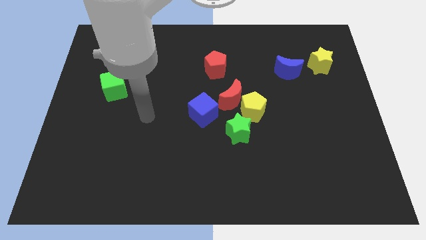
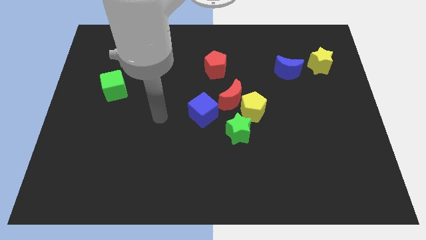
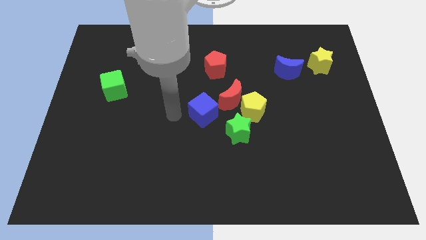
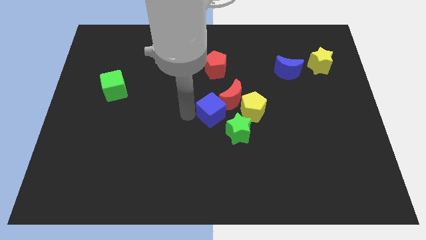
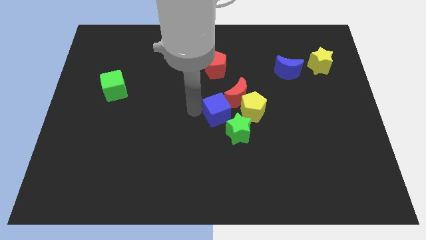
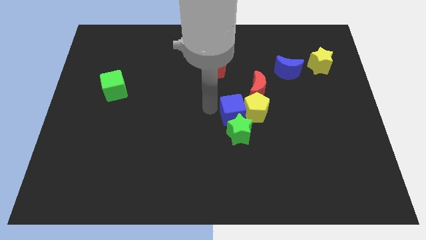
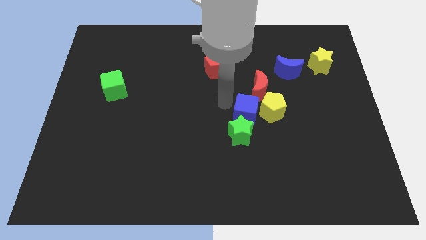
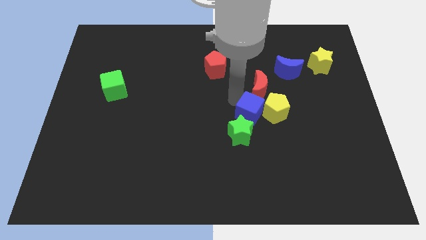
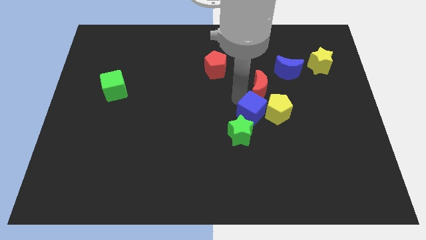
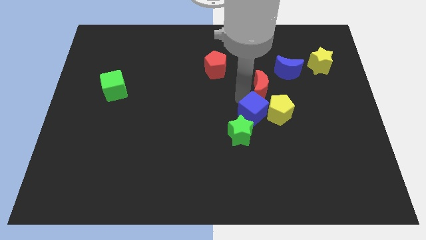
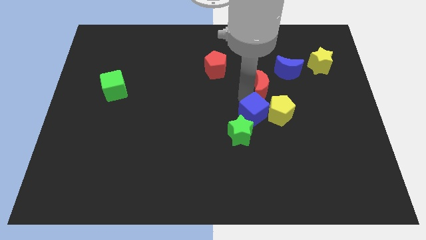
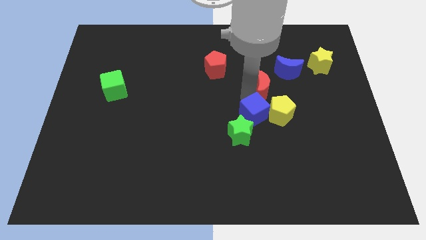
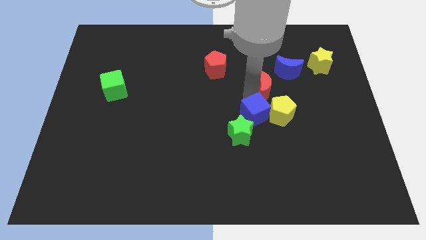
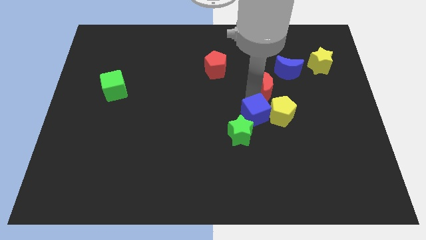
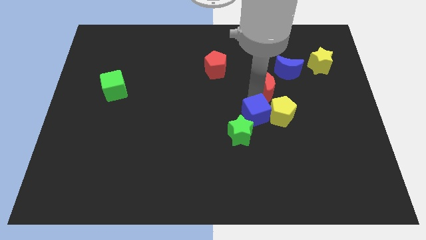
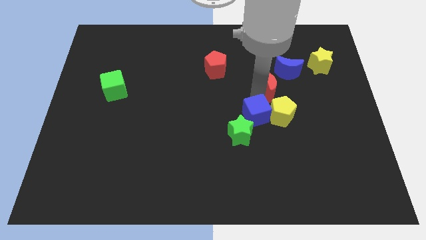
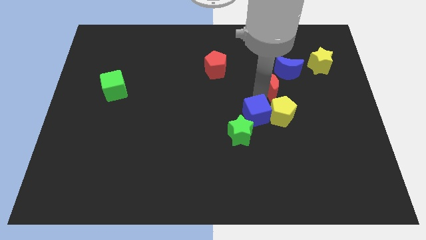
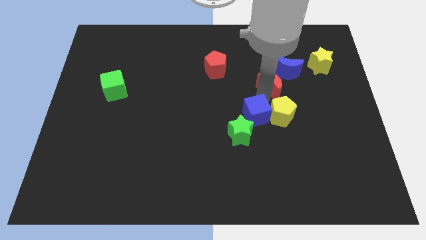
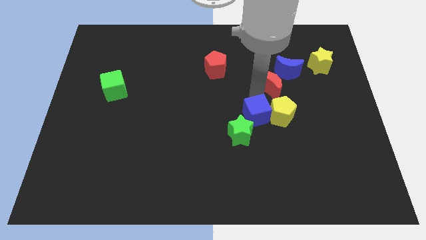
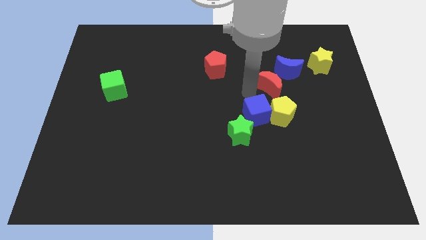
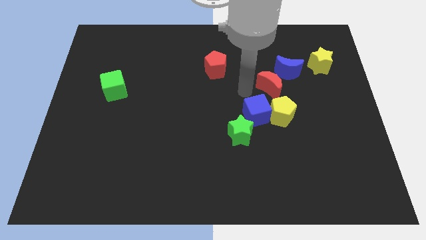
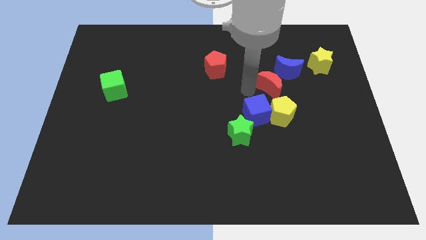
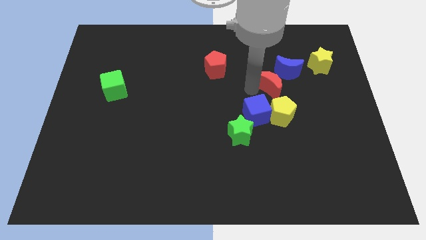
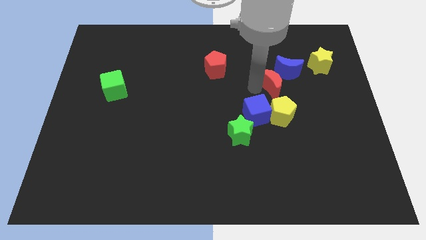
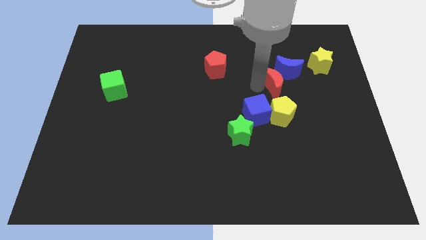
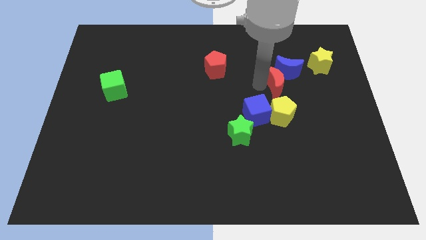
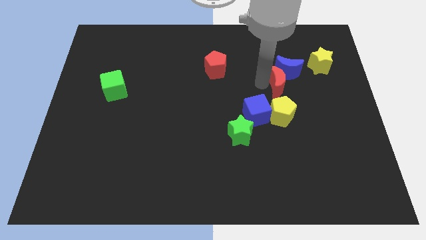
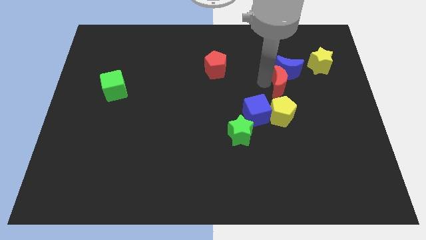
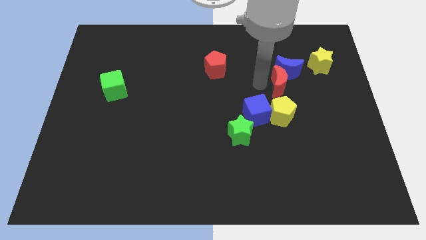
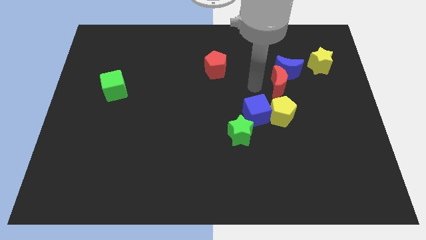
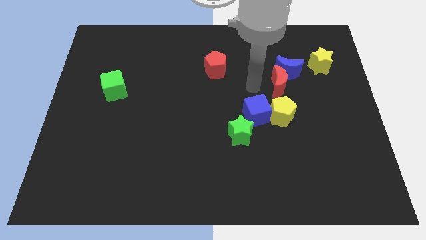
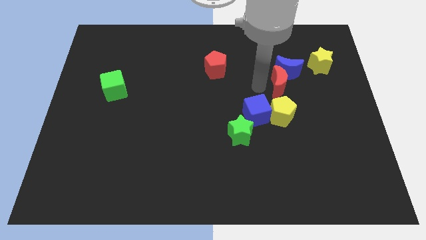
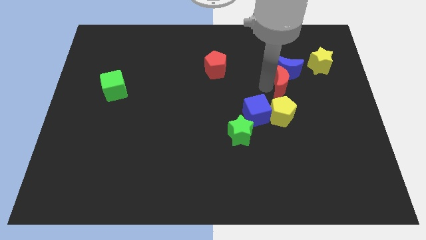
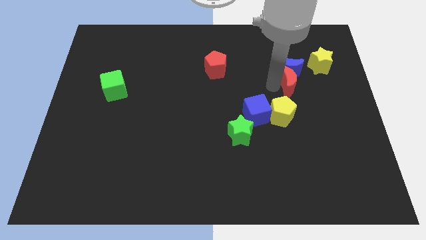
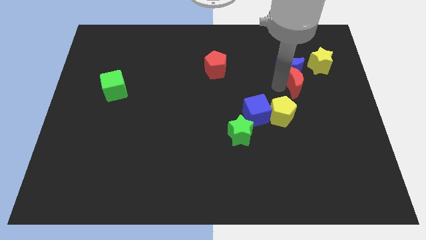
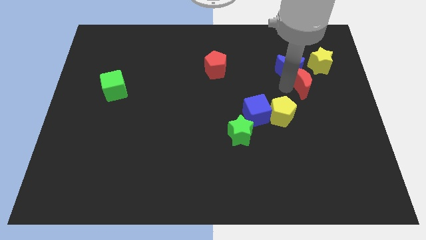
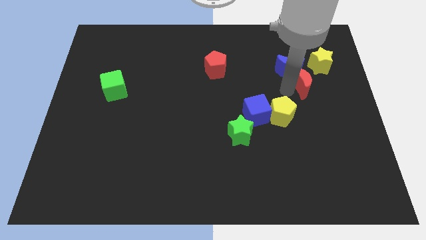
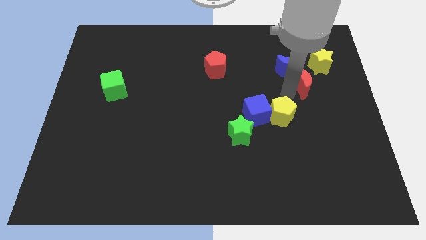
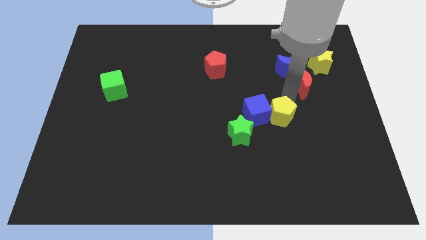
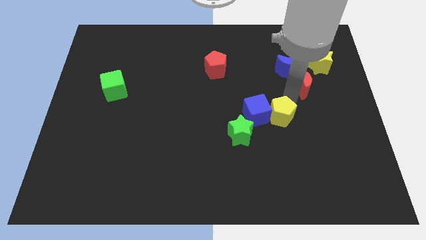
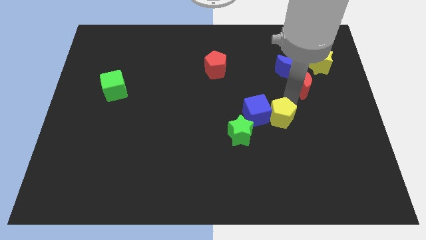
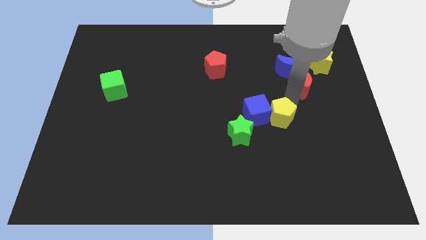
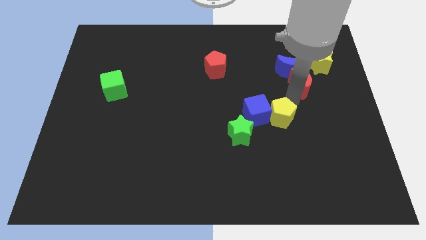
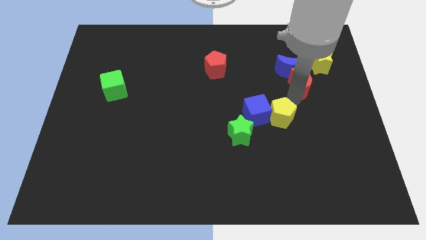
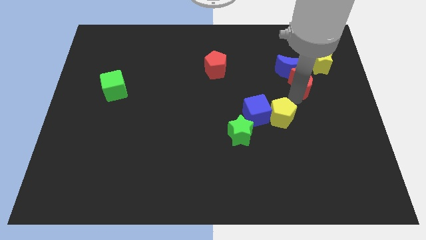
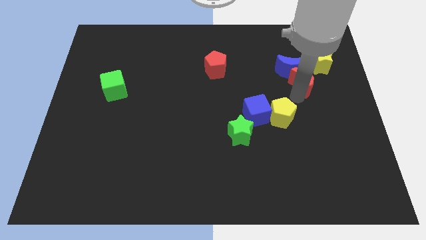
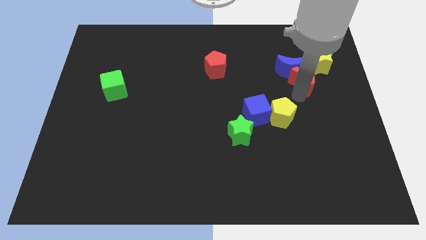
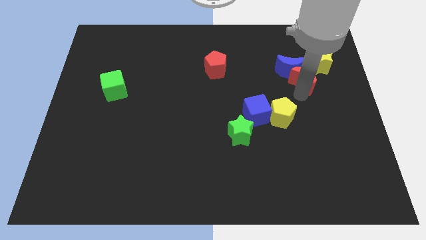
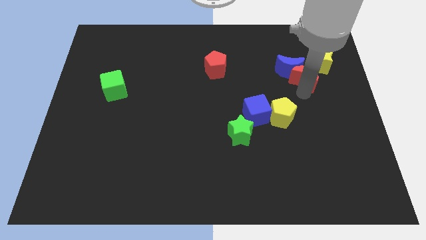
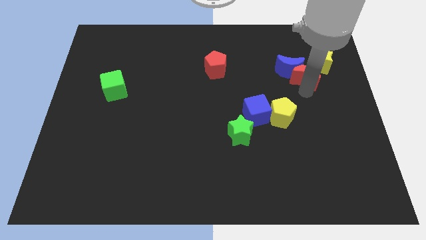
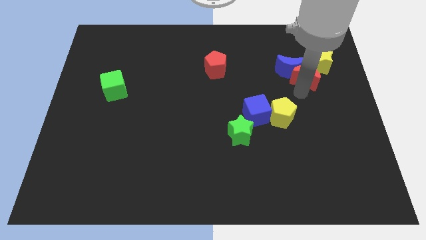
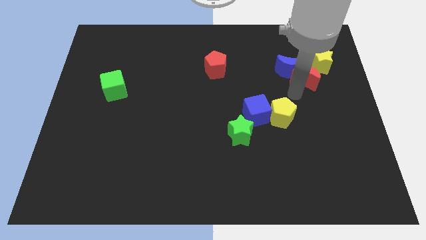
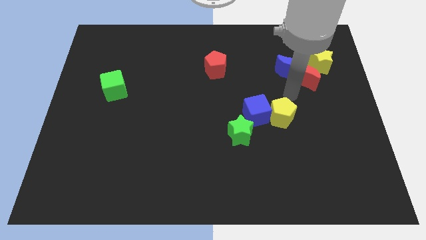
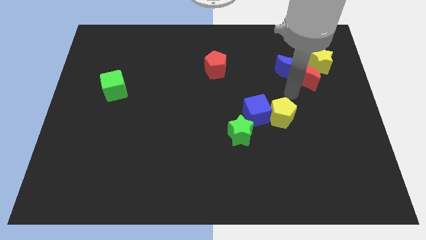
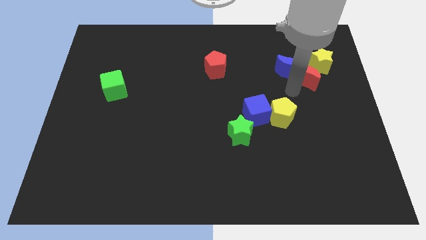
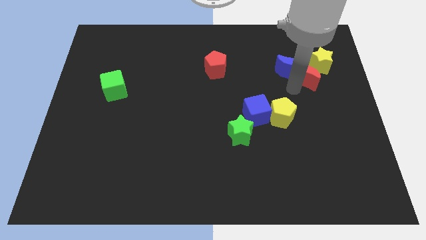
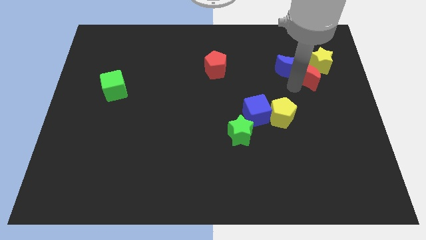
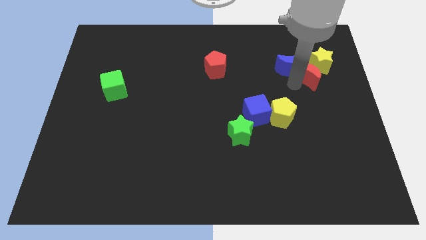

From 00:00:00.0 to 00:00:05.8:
put the red moon to the yellow star

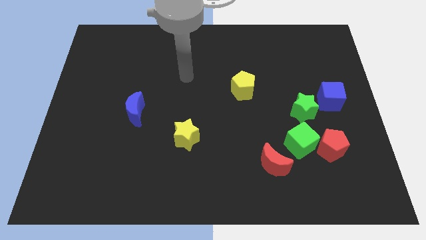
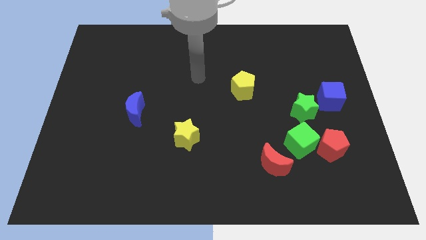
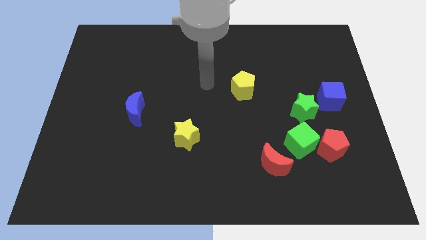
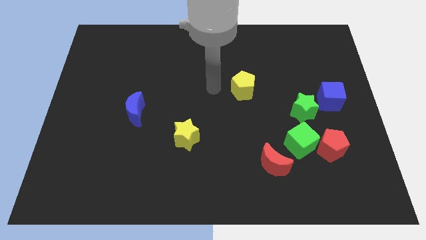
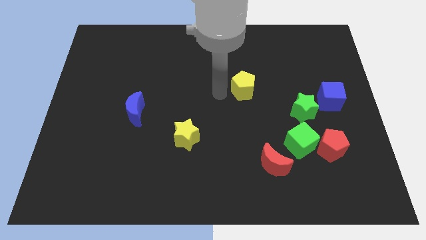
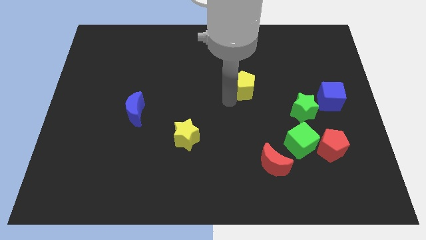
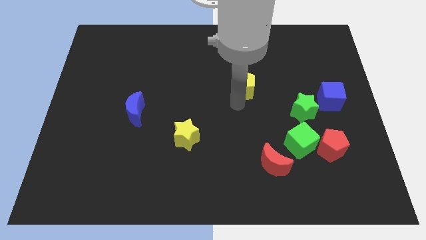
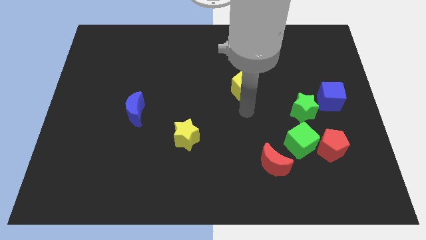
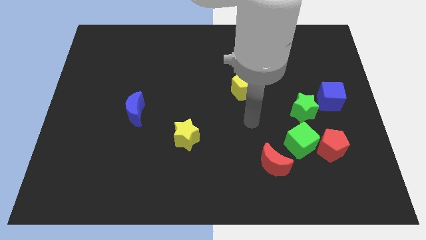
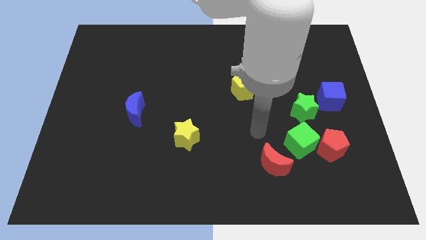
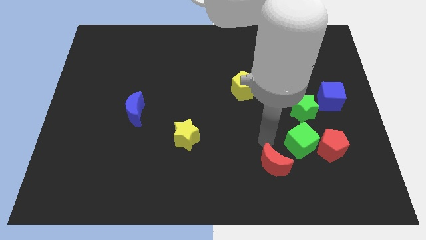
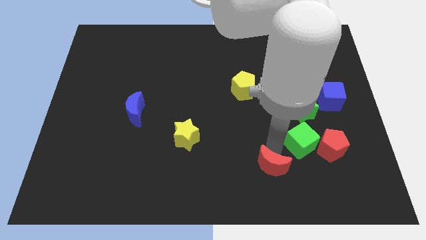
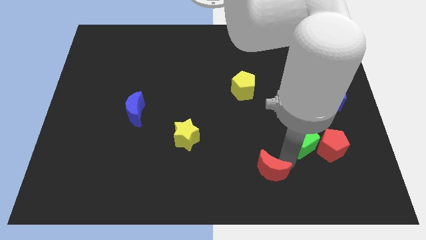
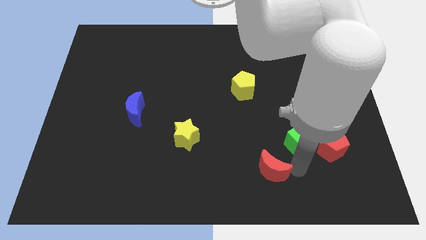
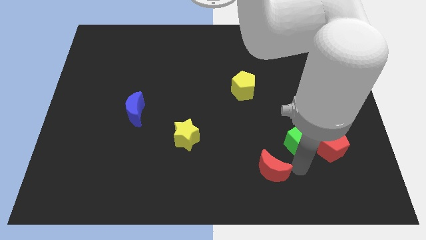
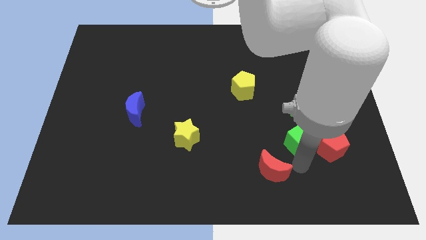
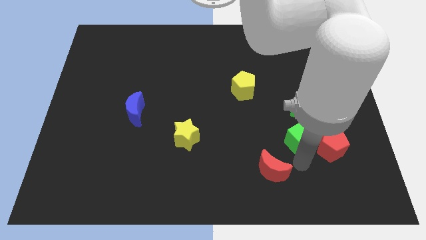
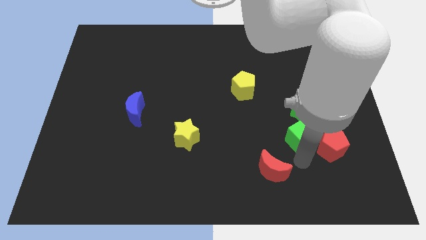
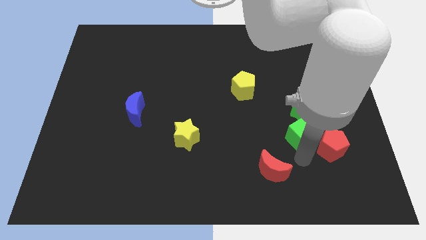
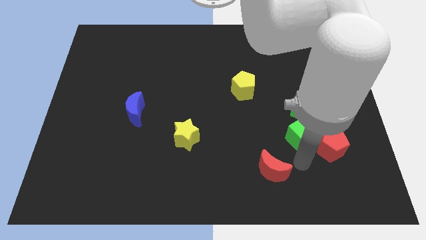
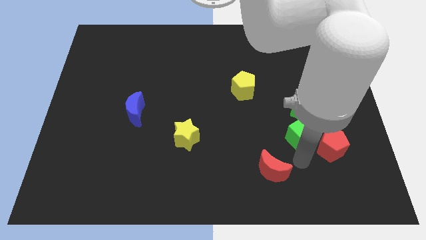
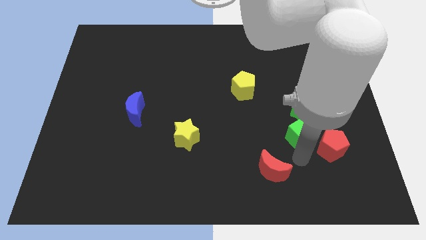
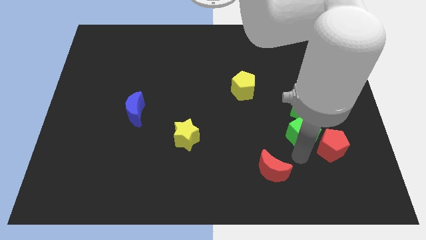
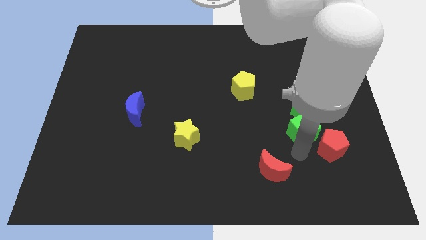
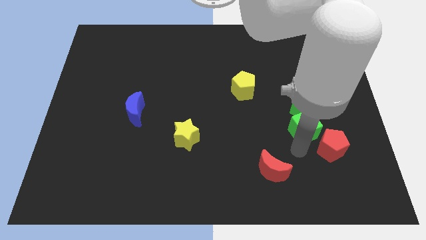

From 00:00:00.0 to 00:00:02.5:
slide the green cube to the green star
